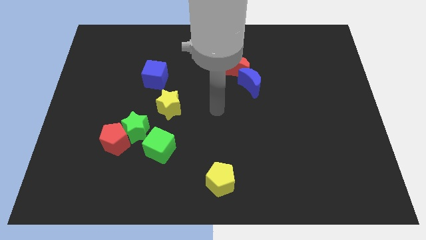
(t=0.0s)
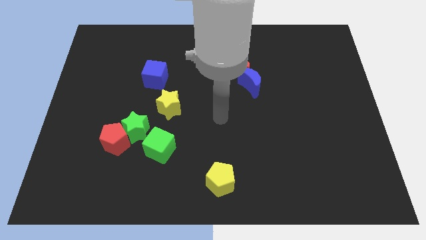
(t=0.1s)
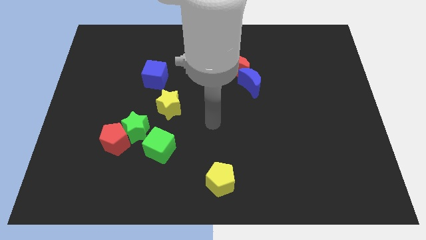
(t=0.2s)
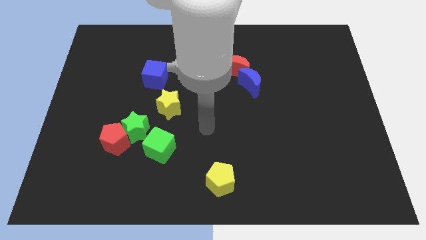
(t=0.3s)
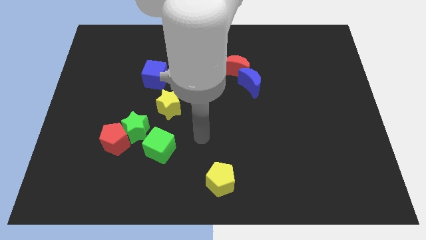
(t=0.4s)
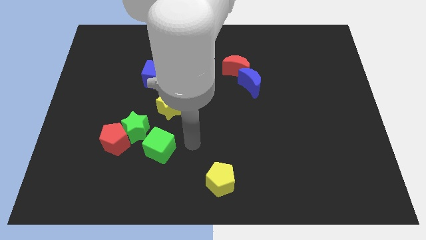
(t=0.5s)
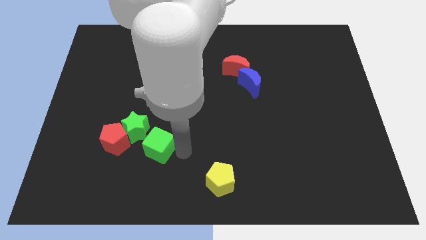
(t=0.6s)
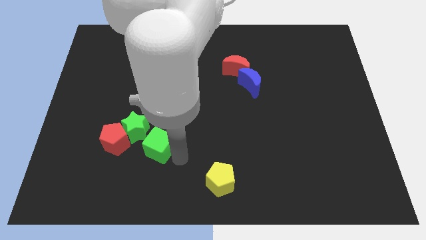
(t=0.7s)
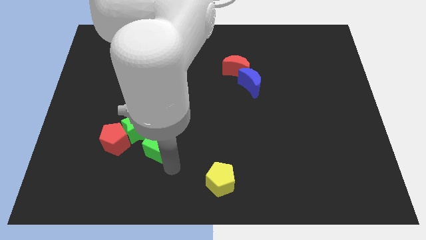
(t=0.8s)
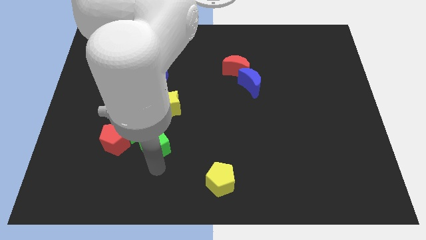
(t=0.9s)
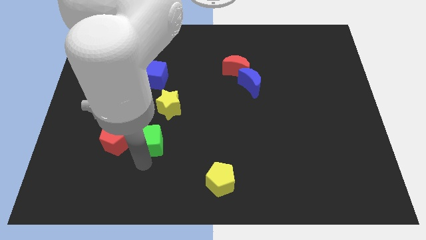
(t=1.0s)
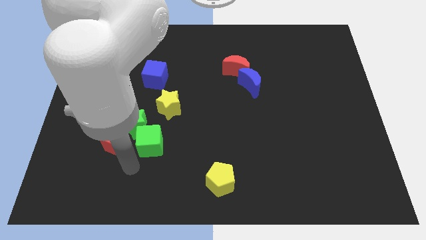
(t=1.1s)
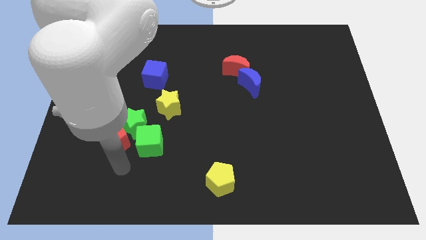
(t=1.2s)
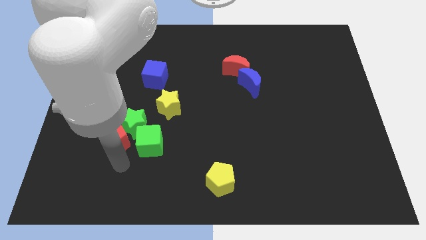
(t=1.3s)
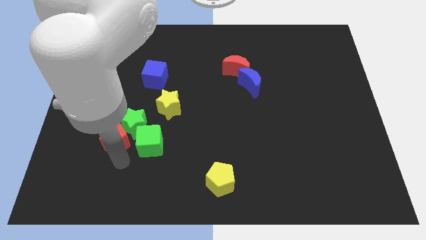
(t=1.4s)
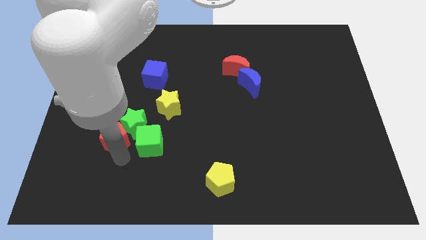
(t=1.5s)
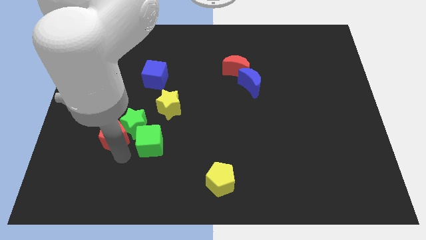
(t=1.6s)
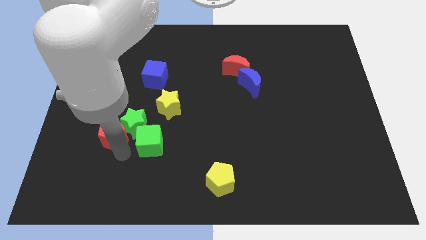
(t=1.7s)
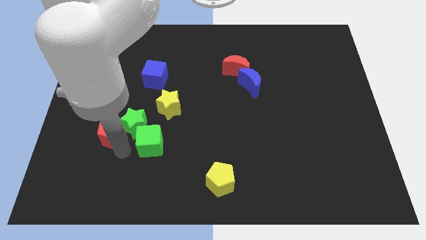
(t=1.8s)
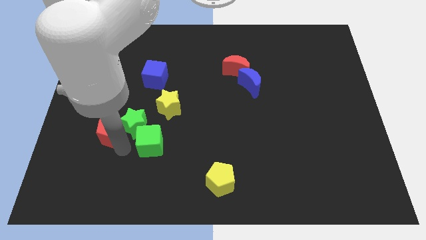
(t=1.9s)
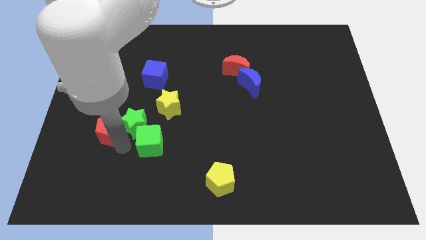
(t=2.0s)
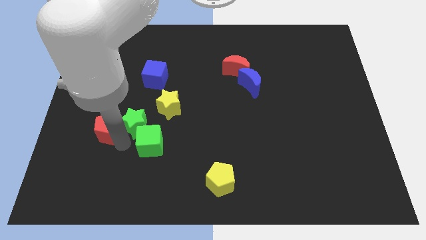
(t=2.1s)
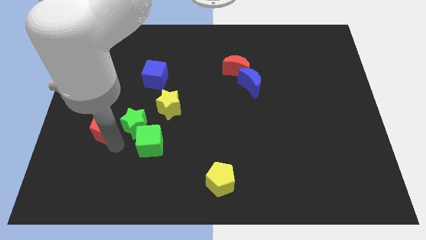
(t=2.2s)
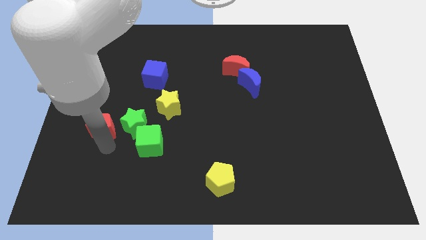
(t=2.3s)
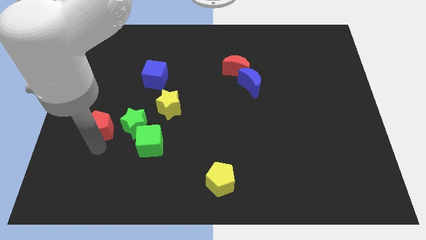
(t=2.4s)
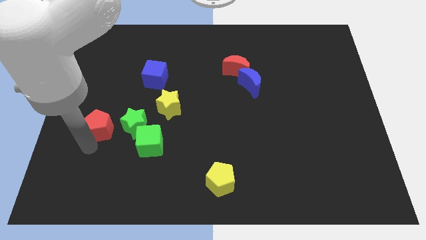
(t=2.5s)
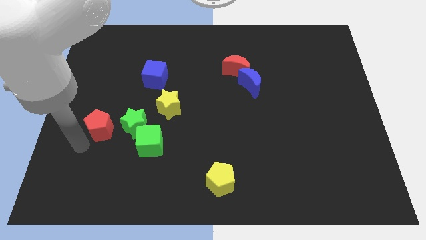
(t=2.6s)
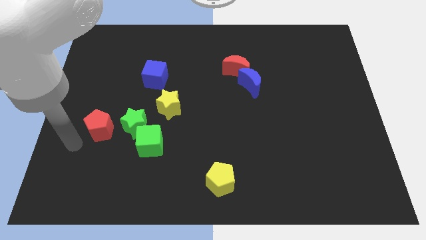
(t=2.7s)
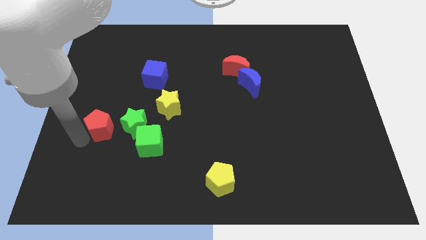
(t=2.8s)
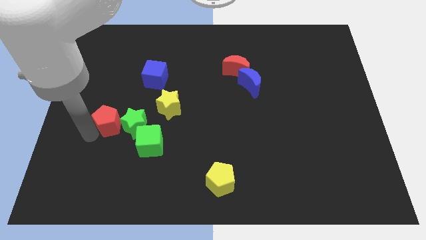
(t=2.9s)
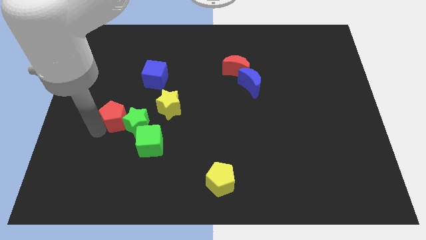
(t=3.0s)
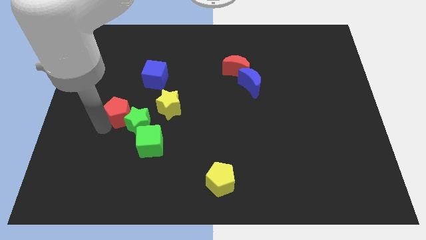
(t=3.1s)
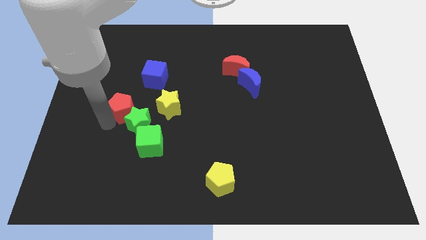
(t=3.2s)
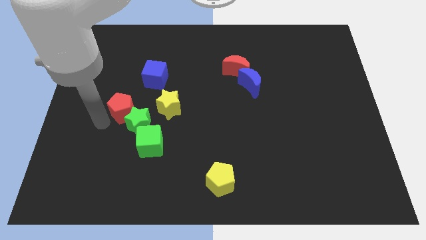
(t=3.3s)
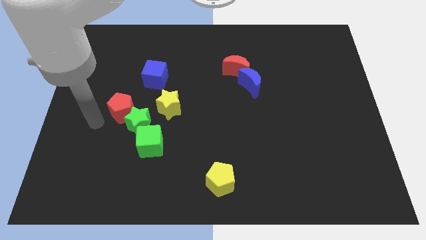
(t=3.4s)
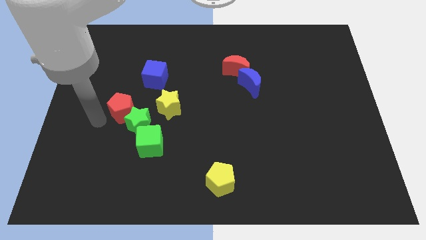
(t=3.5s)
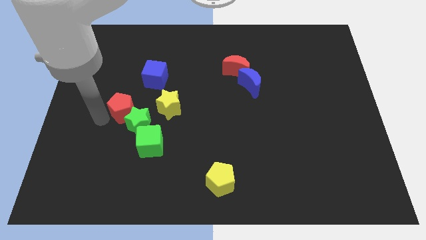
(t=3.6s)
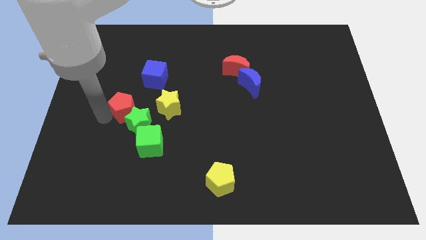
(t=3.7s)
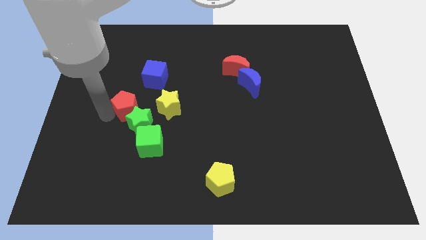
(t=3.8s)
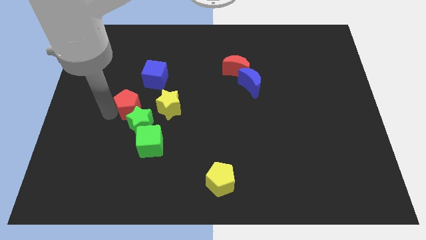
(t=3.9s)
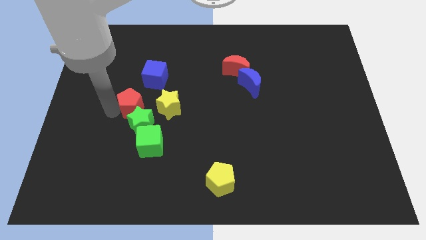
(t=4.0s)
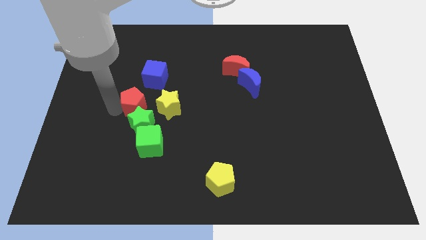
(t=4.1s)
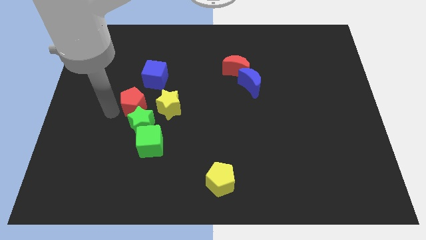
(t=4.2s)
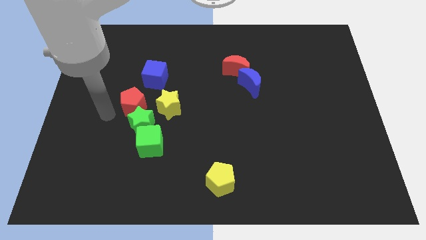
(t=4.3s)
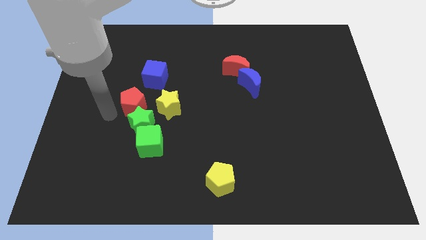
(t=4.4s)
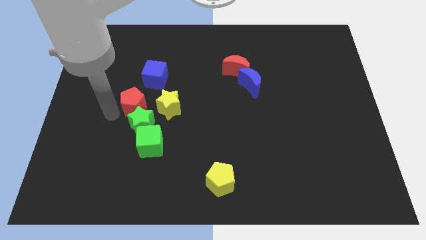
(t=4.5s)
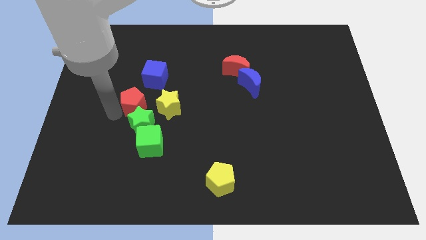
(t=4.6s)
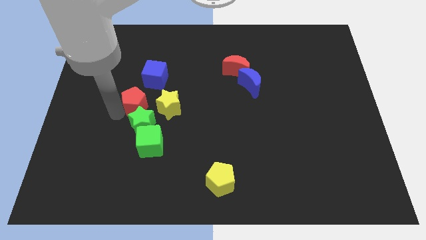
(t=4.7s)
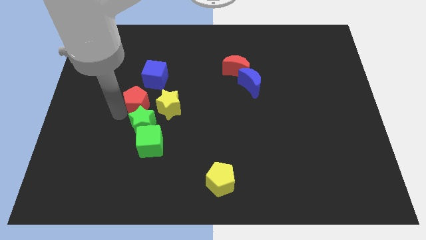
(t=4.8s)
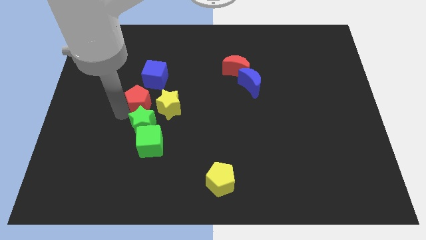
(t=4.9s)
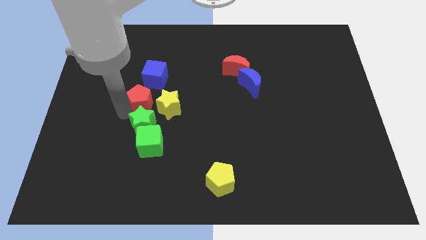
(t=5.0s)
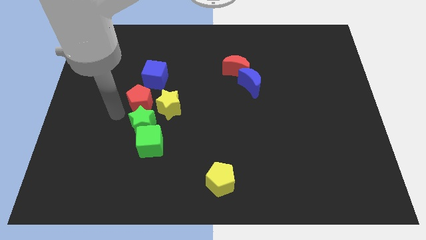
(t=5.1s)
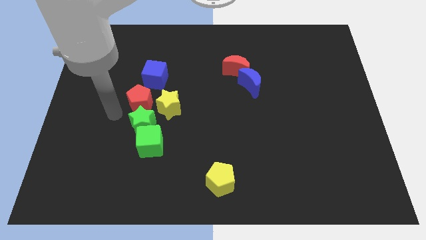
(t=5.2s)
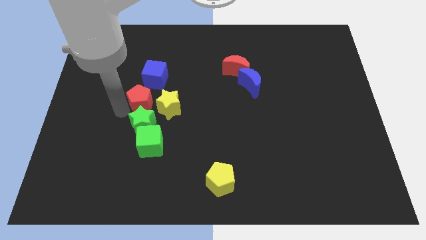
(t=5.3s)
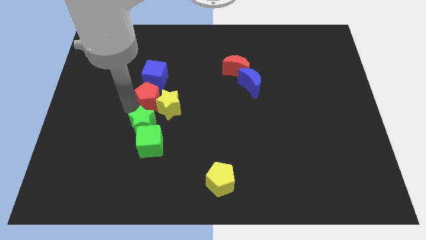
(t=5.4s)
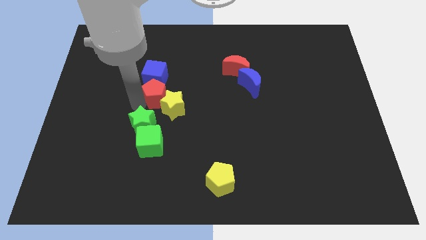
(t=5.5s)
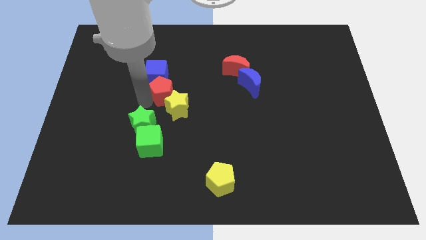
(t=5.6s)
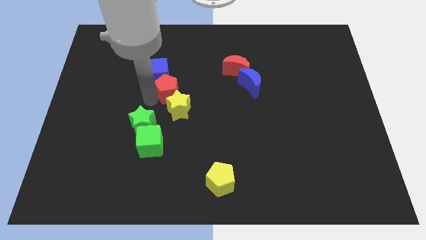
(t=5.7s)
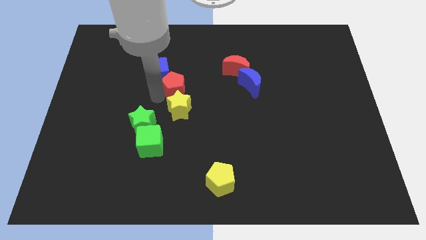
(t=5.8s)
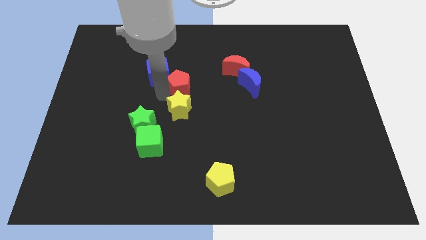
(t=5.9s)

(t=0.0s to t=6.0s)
slide the red pentagon up and right

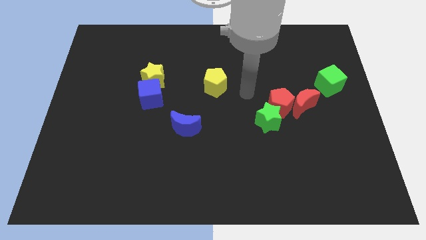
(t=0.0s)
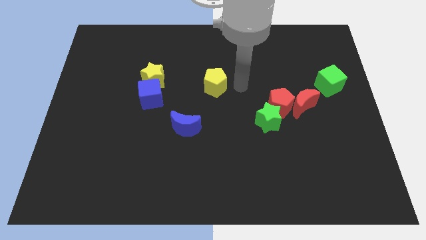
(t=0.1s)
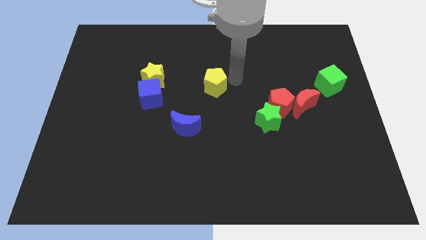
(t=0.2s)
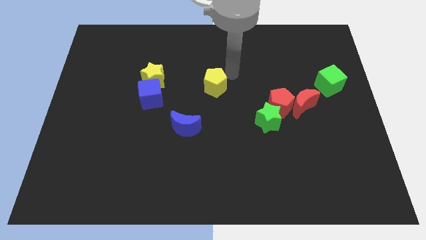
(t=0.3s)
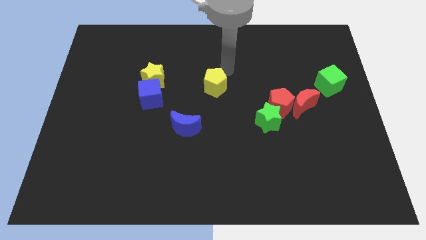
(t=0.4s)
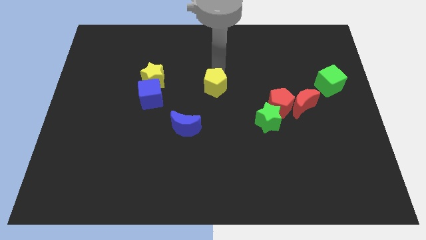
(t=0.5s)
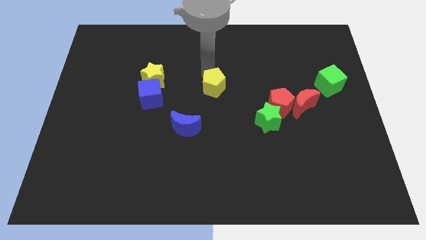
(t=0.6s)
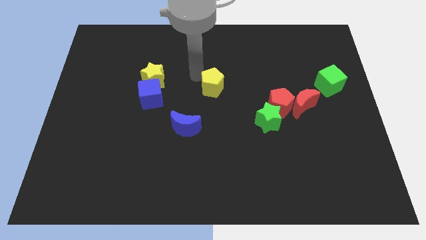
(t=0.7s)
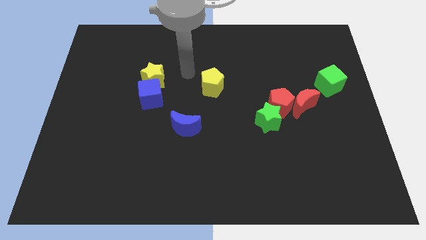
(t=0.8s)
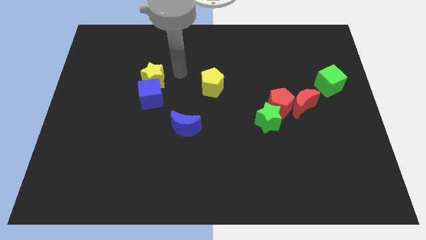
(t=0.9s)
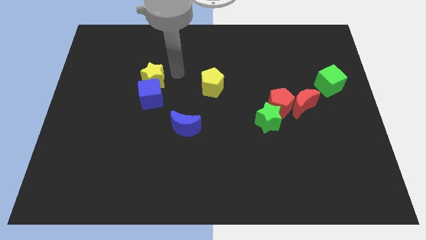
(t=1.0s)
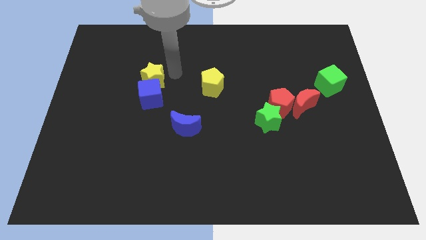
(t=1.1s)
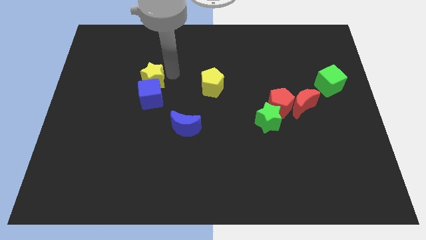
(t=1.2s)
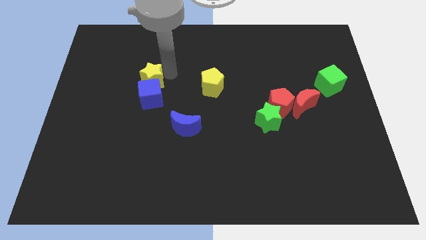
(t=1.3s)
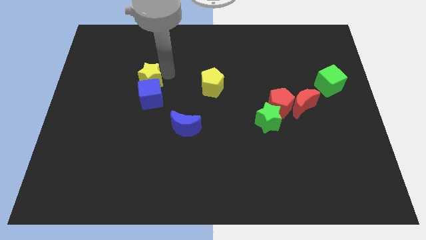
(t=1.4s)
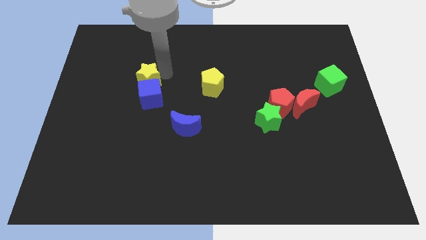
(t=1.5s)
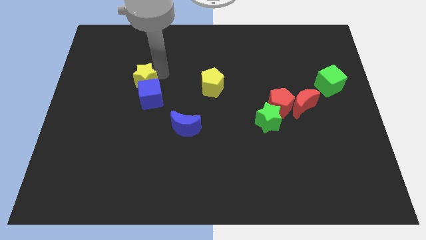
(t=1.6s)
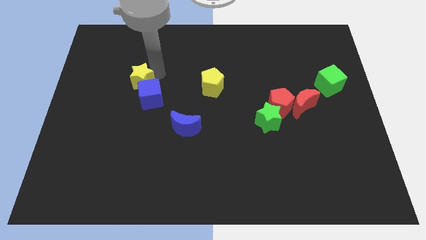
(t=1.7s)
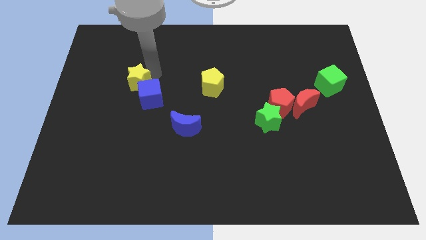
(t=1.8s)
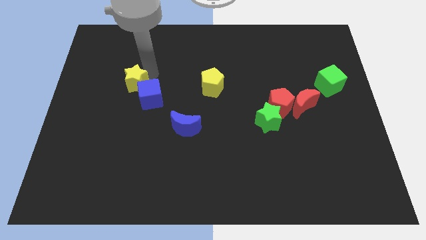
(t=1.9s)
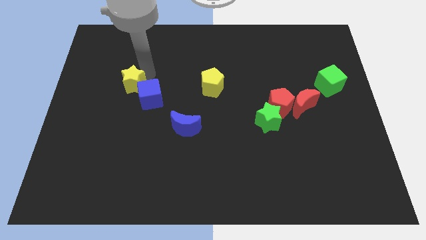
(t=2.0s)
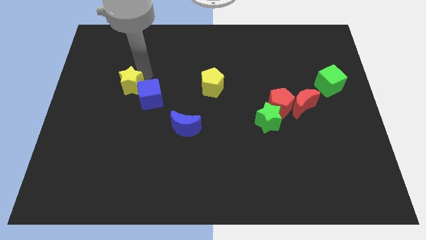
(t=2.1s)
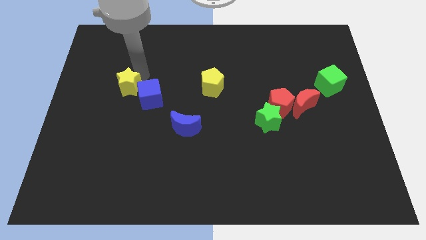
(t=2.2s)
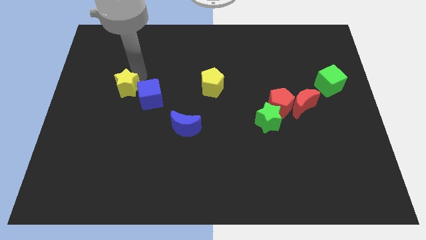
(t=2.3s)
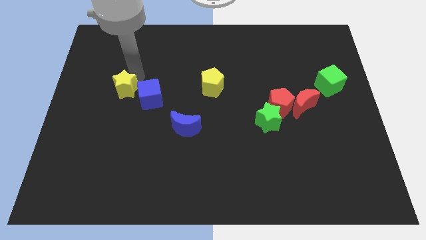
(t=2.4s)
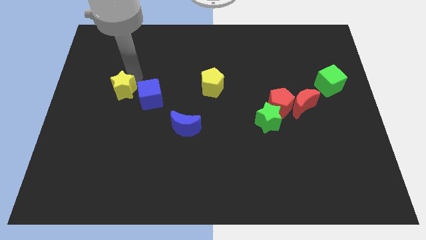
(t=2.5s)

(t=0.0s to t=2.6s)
slightly slide the yellow star diagonally down and left

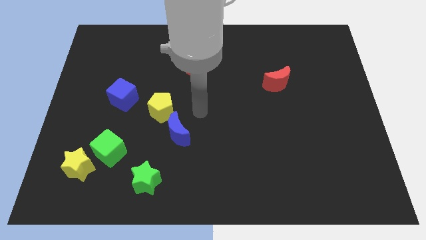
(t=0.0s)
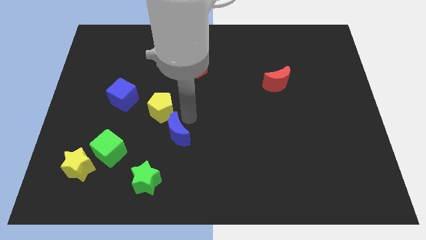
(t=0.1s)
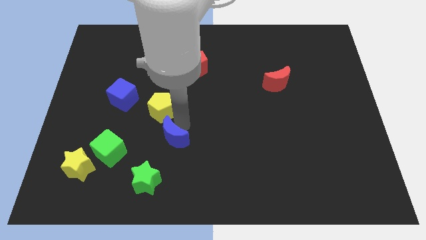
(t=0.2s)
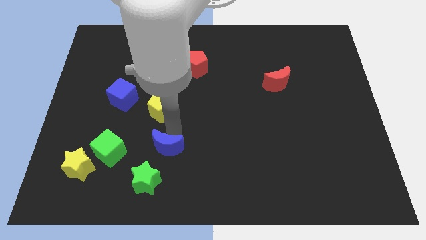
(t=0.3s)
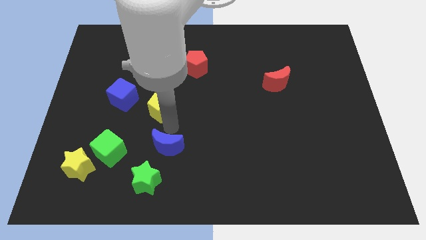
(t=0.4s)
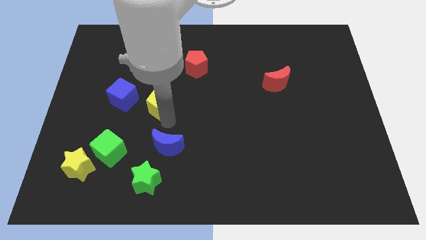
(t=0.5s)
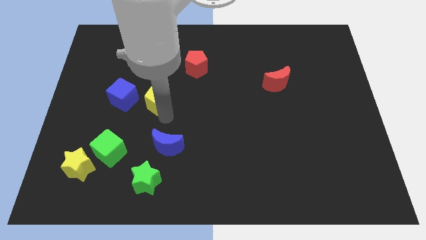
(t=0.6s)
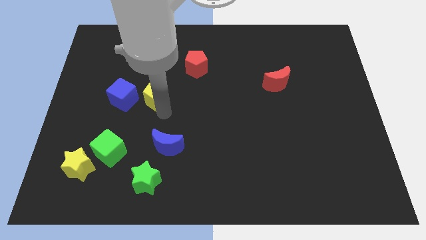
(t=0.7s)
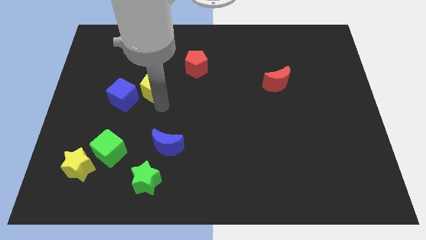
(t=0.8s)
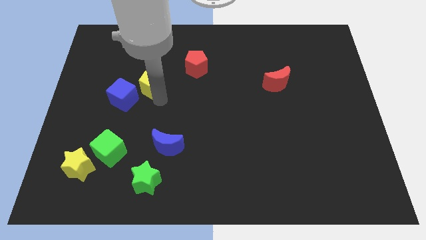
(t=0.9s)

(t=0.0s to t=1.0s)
push the yellow pentagon up and then left somewhat
